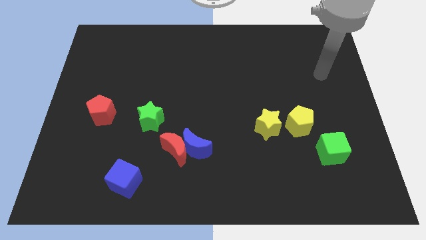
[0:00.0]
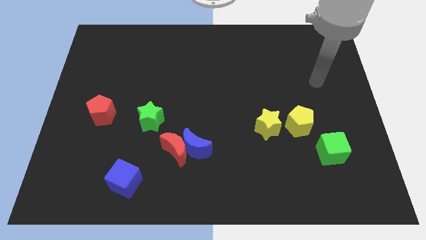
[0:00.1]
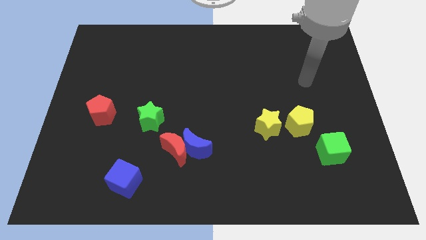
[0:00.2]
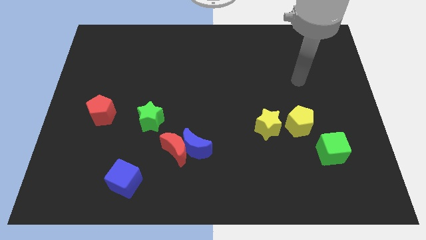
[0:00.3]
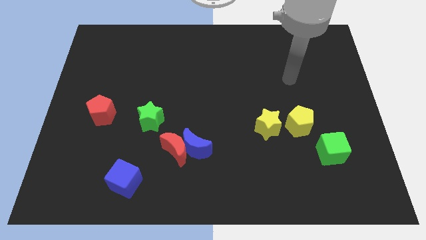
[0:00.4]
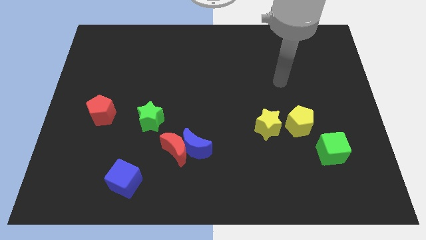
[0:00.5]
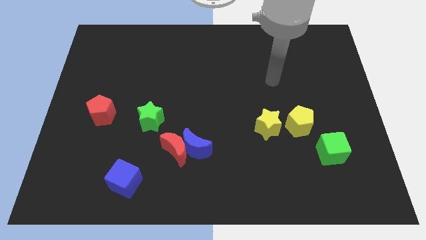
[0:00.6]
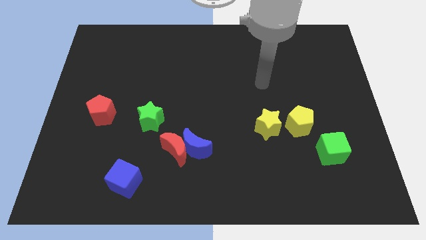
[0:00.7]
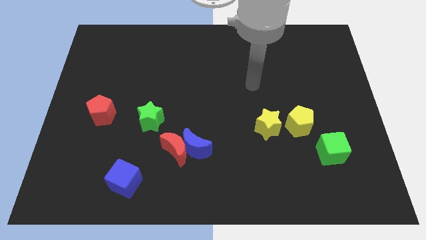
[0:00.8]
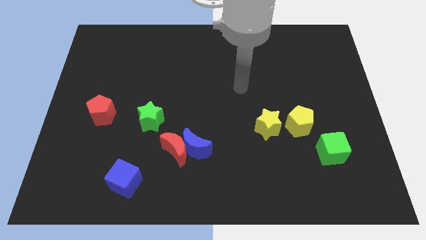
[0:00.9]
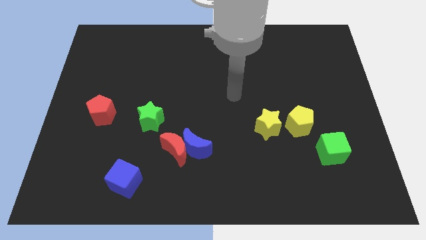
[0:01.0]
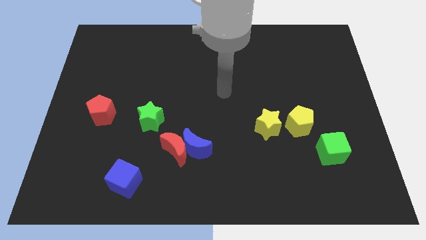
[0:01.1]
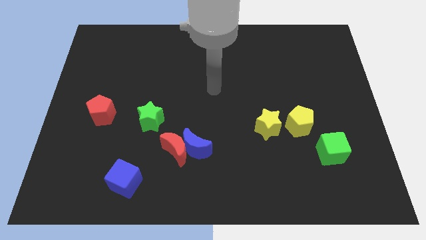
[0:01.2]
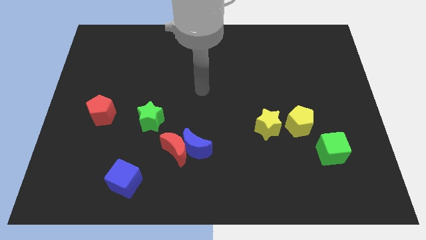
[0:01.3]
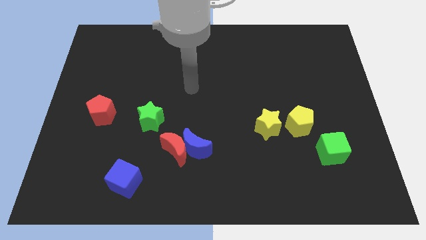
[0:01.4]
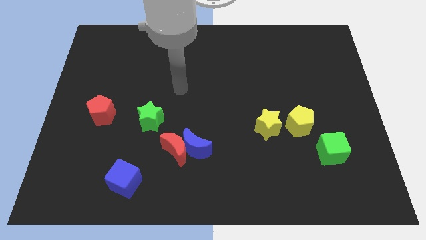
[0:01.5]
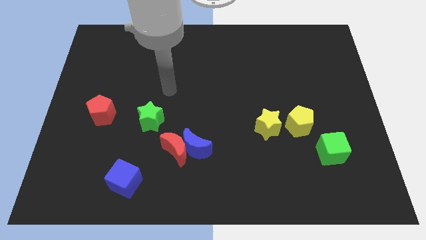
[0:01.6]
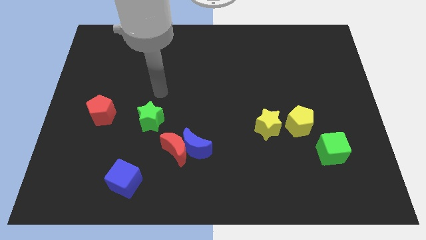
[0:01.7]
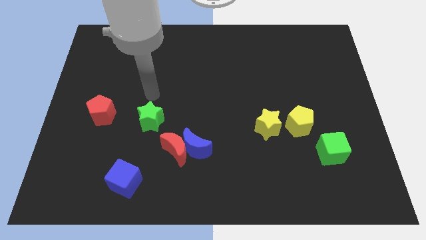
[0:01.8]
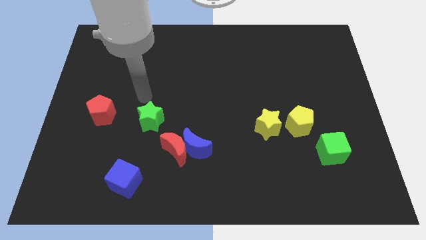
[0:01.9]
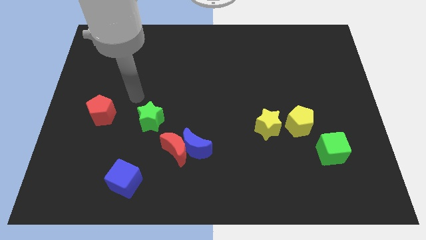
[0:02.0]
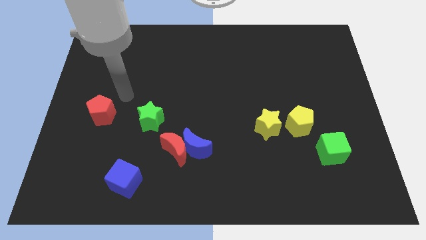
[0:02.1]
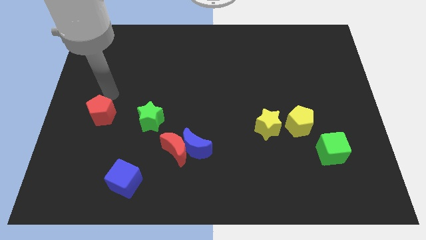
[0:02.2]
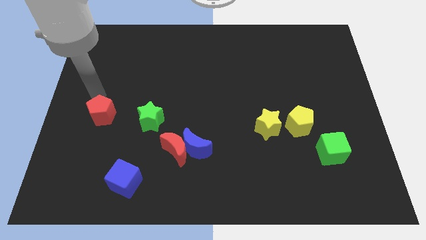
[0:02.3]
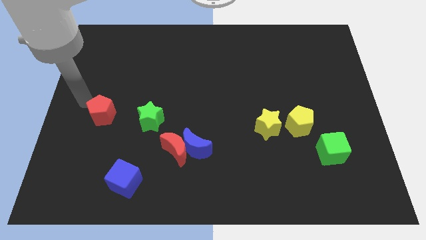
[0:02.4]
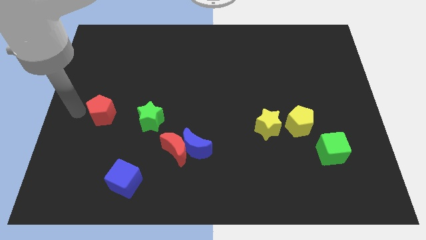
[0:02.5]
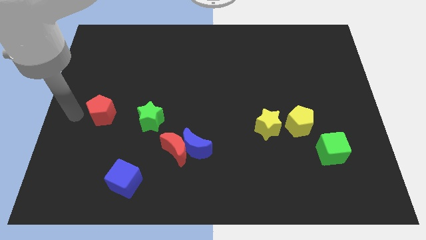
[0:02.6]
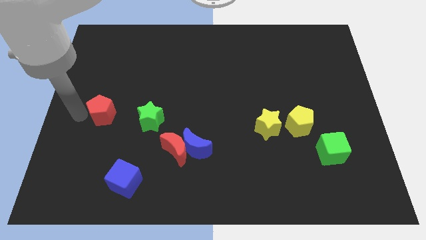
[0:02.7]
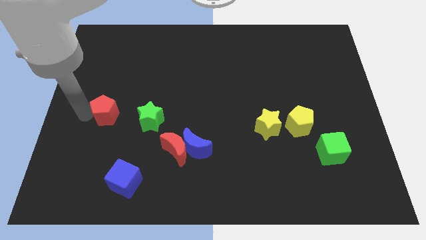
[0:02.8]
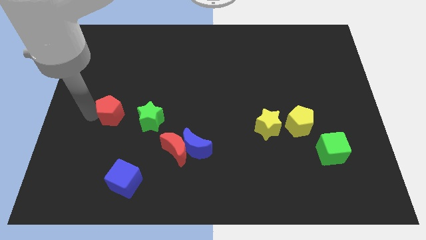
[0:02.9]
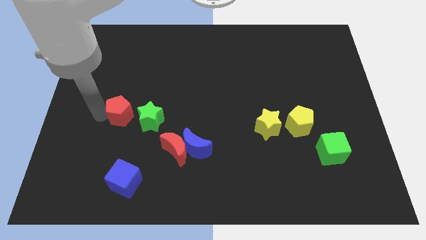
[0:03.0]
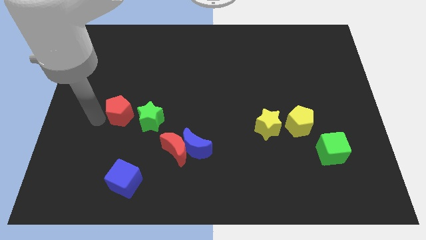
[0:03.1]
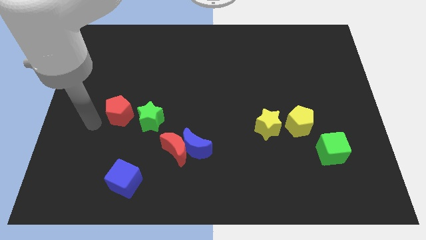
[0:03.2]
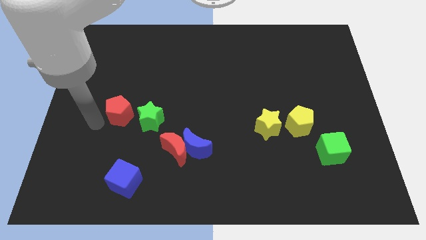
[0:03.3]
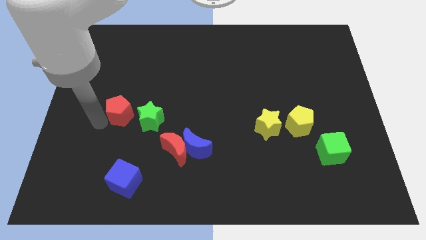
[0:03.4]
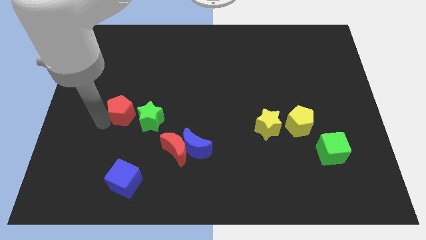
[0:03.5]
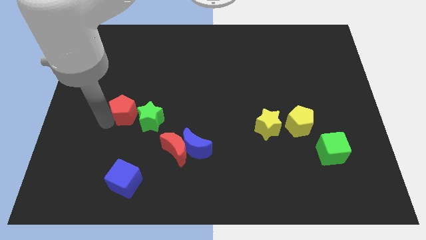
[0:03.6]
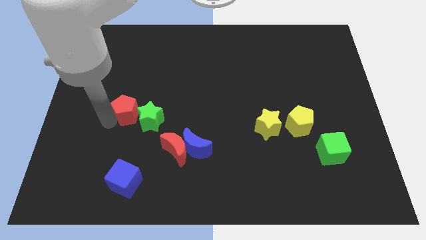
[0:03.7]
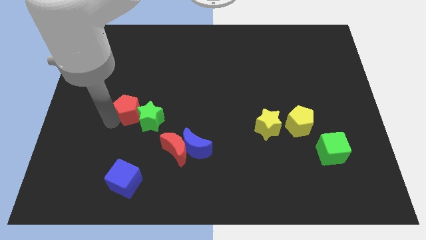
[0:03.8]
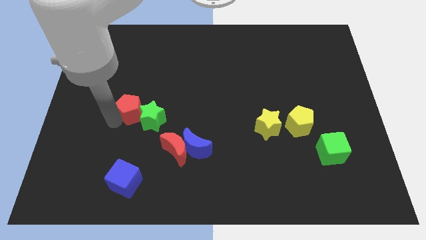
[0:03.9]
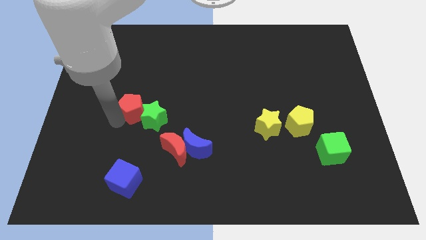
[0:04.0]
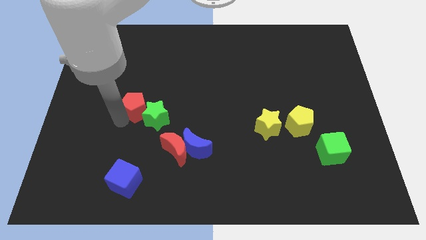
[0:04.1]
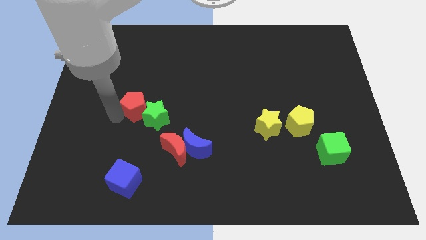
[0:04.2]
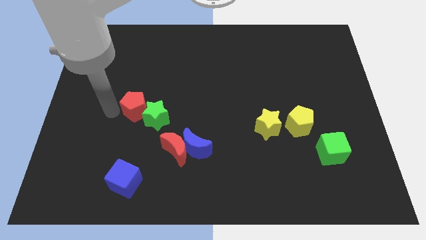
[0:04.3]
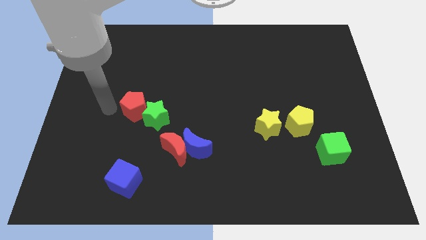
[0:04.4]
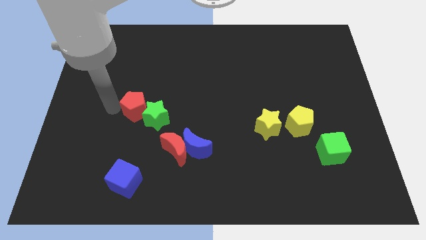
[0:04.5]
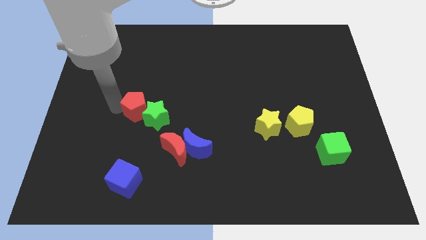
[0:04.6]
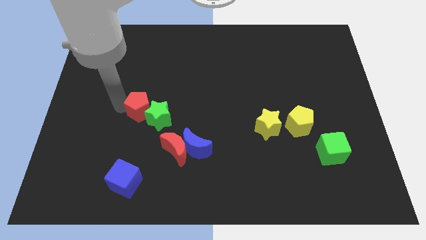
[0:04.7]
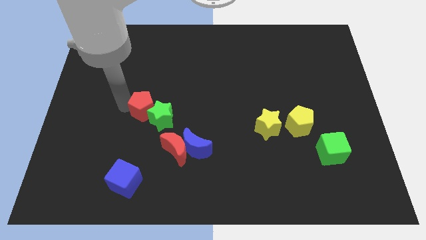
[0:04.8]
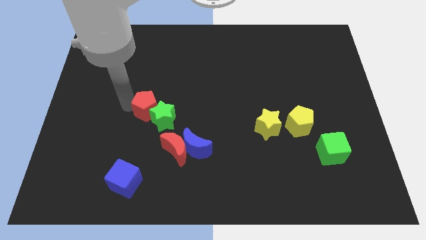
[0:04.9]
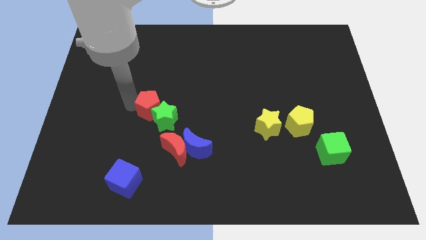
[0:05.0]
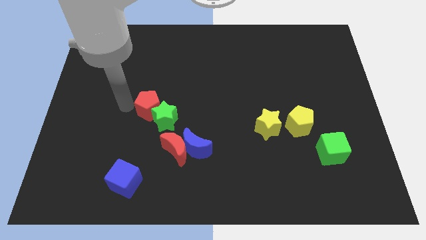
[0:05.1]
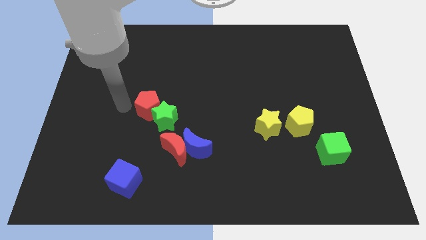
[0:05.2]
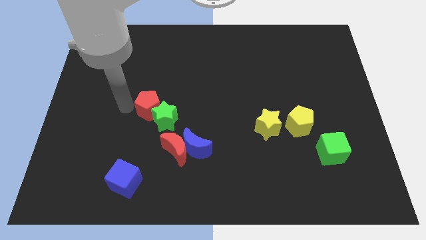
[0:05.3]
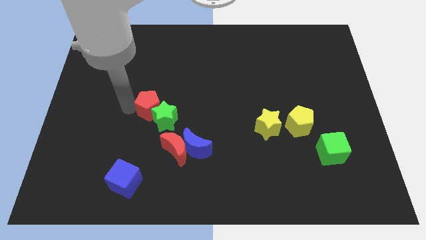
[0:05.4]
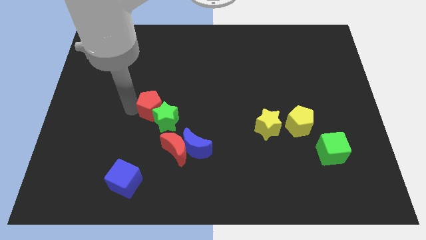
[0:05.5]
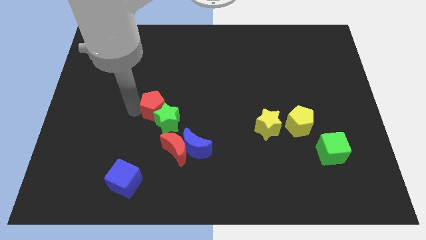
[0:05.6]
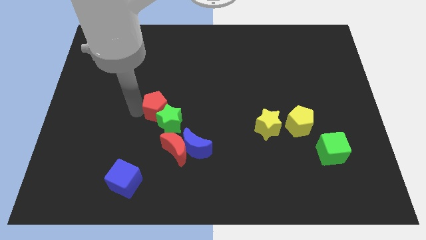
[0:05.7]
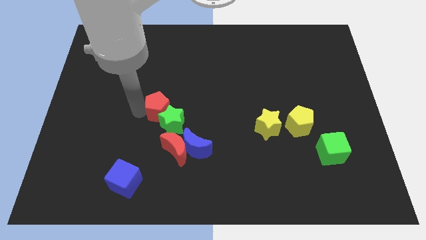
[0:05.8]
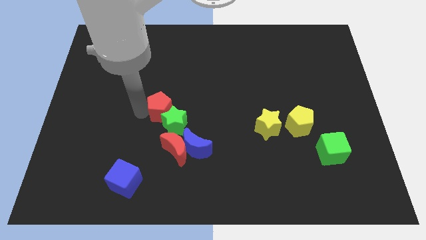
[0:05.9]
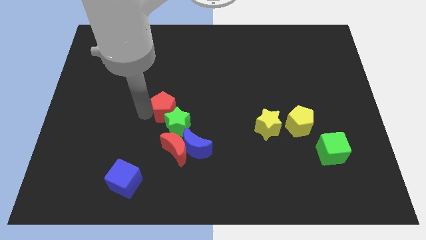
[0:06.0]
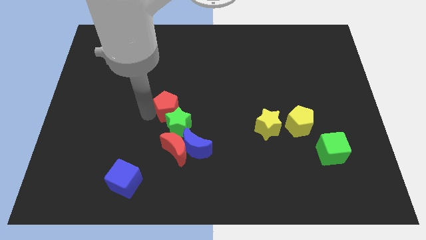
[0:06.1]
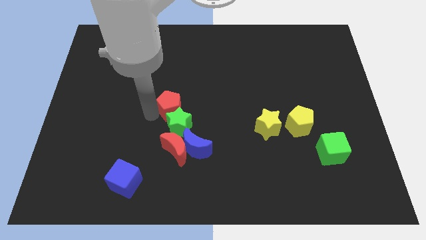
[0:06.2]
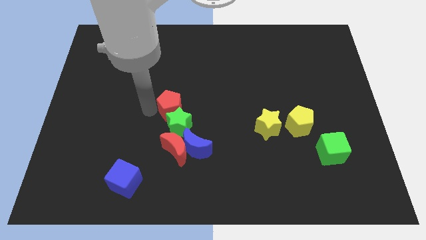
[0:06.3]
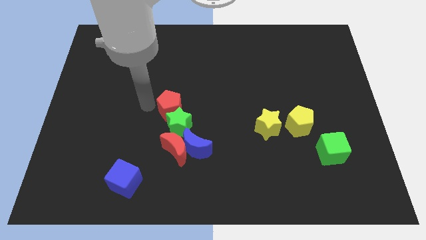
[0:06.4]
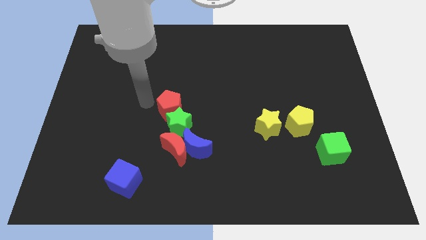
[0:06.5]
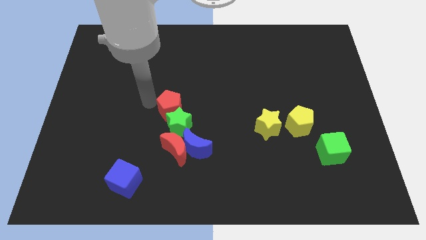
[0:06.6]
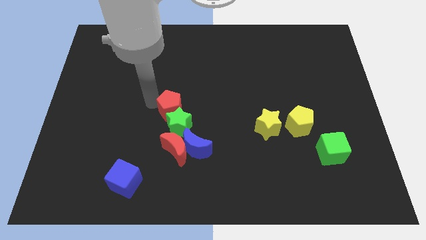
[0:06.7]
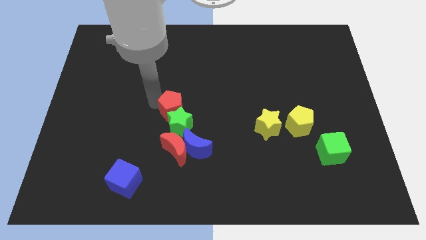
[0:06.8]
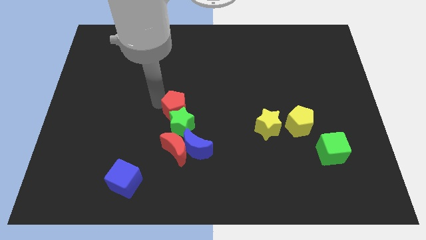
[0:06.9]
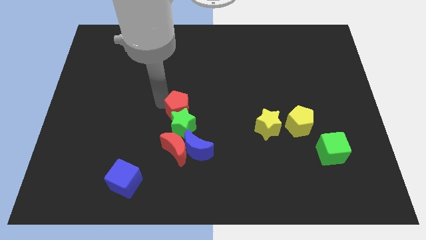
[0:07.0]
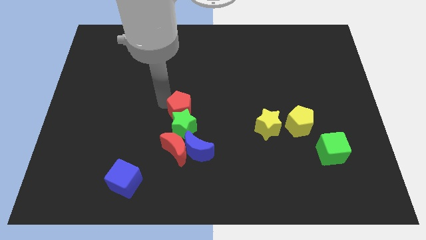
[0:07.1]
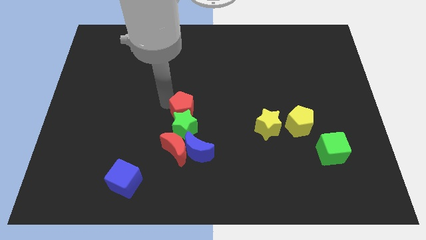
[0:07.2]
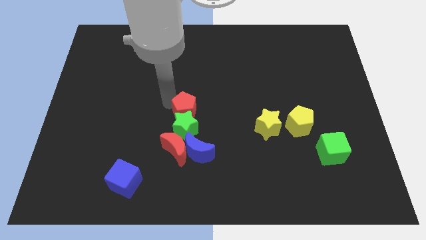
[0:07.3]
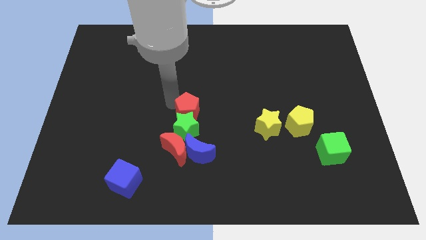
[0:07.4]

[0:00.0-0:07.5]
move the red pentagon to the right

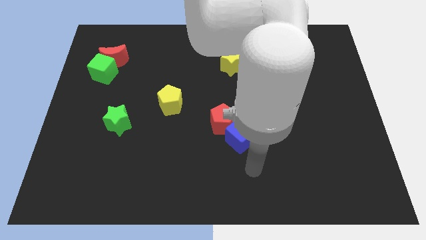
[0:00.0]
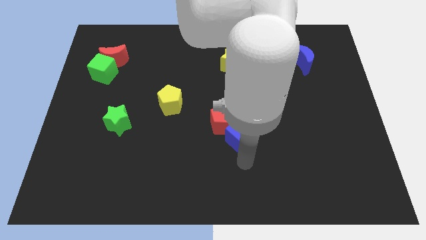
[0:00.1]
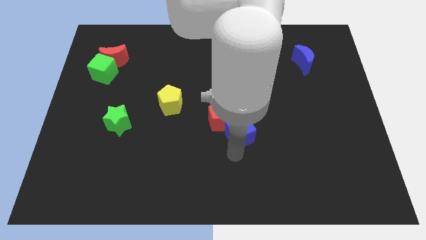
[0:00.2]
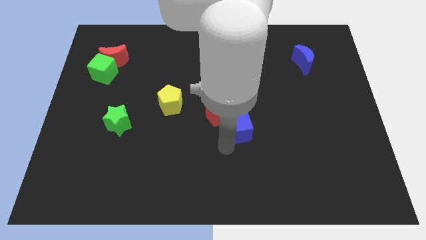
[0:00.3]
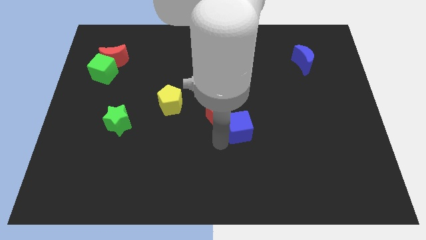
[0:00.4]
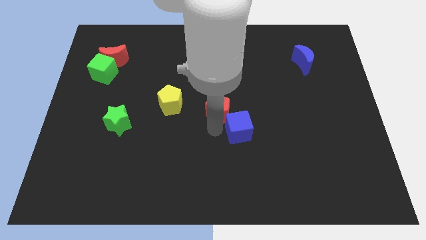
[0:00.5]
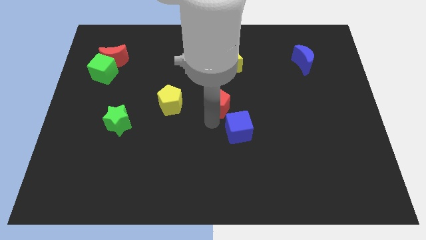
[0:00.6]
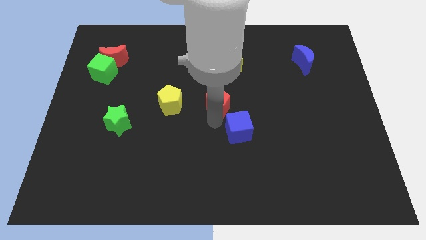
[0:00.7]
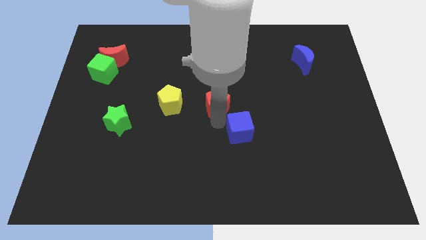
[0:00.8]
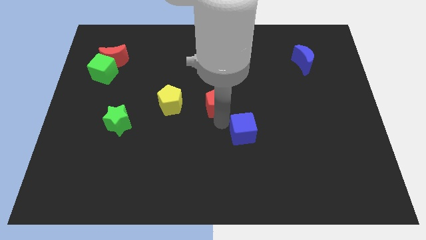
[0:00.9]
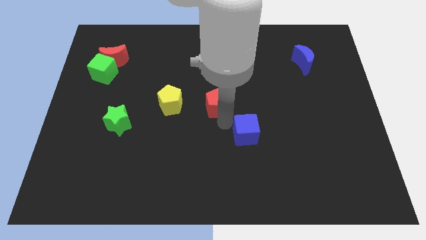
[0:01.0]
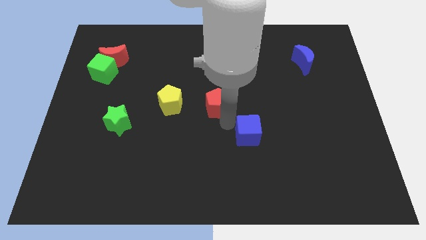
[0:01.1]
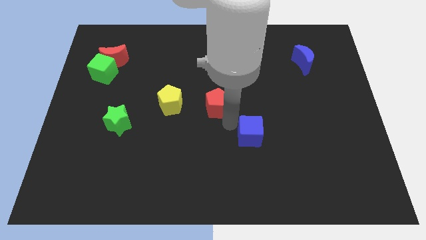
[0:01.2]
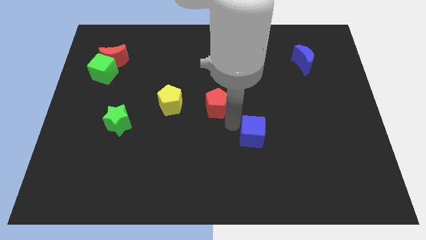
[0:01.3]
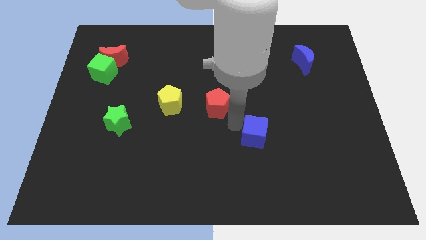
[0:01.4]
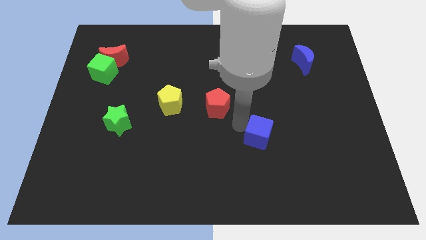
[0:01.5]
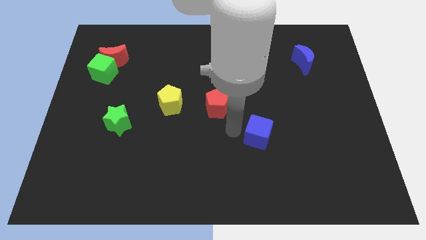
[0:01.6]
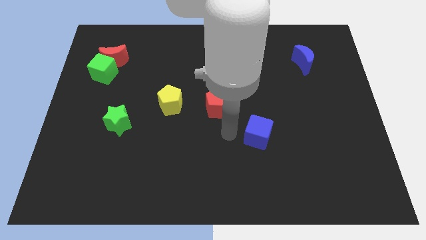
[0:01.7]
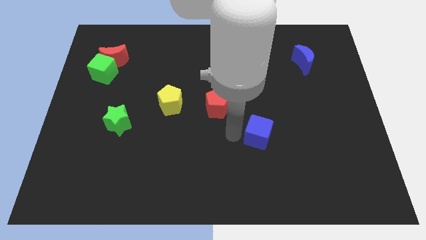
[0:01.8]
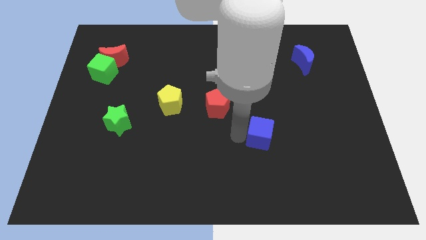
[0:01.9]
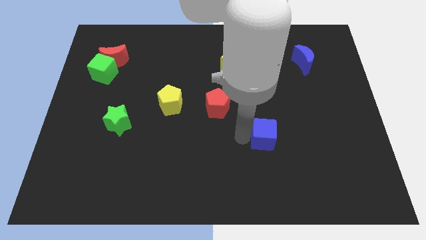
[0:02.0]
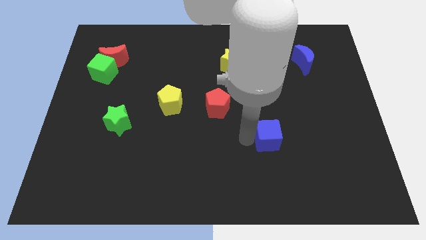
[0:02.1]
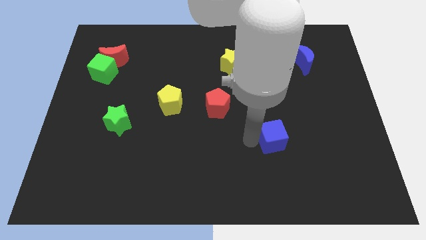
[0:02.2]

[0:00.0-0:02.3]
slide the blue cube right a bit
